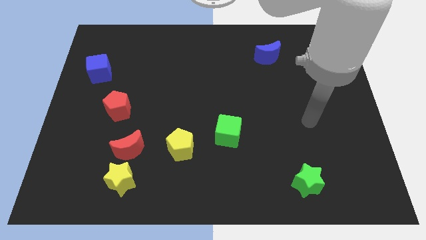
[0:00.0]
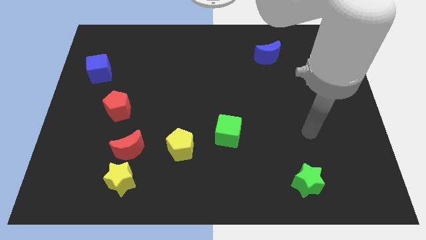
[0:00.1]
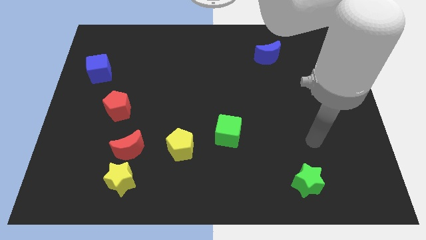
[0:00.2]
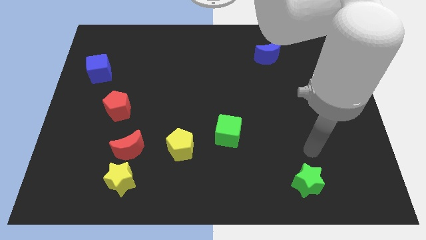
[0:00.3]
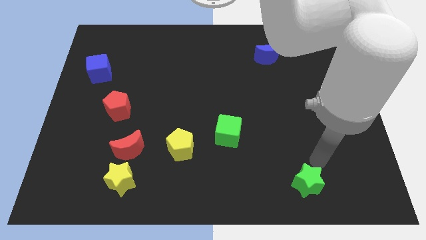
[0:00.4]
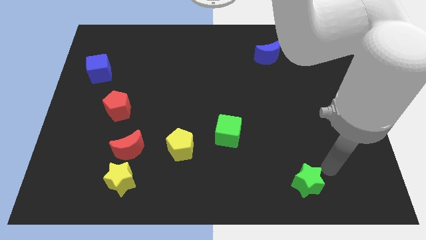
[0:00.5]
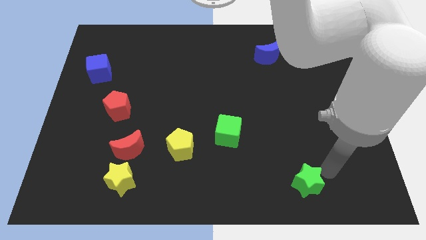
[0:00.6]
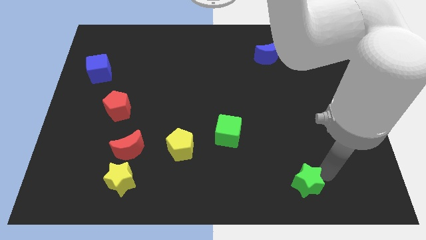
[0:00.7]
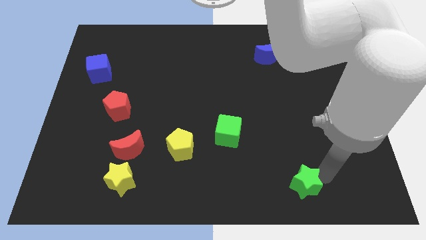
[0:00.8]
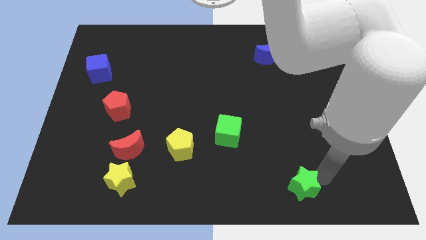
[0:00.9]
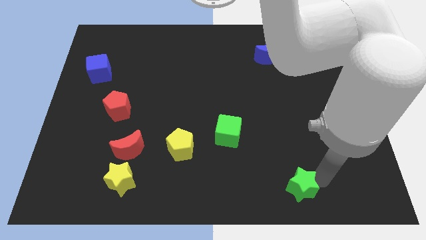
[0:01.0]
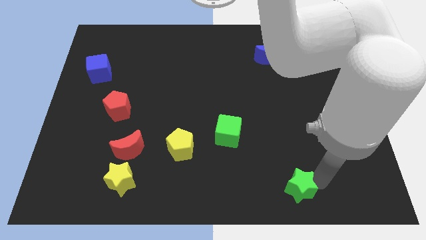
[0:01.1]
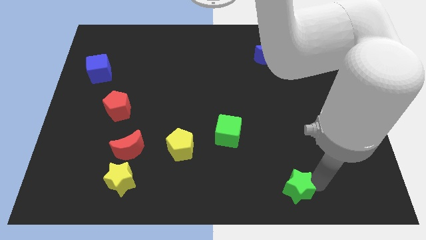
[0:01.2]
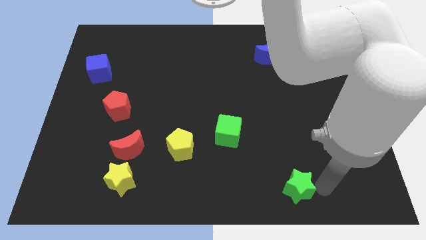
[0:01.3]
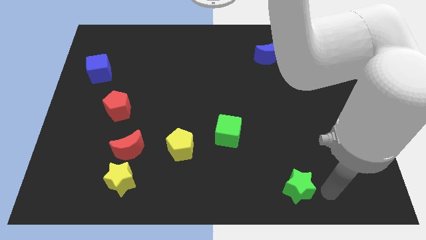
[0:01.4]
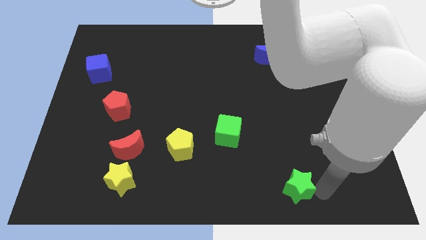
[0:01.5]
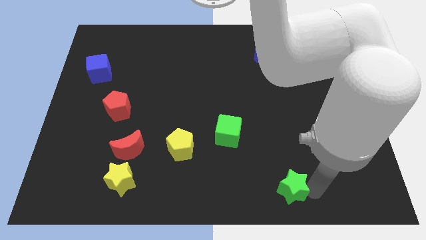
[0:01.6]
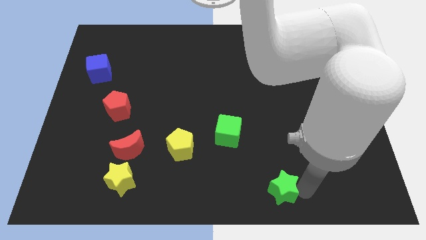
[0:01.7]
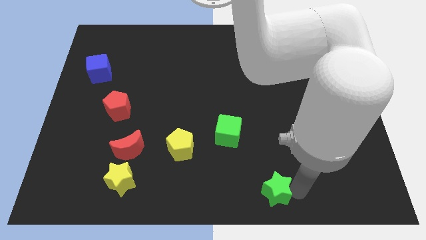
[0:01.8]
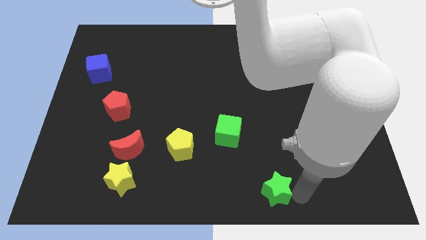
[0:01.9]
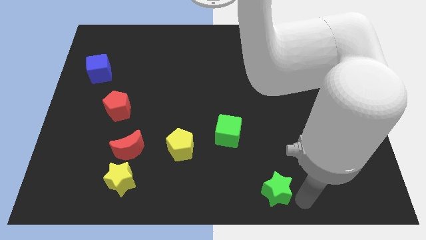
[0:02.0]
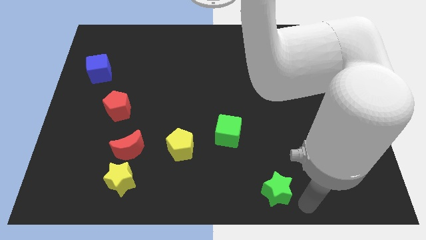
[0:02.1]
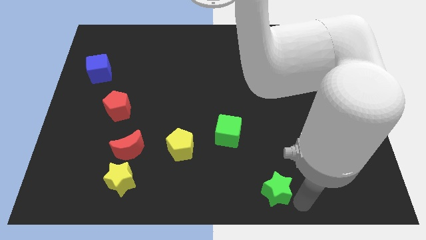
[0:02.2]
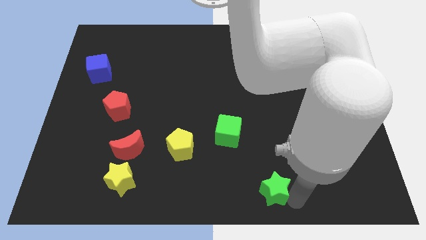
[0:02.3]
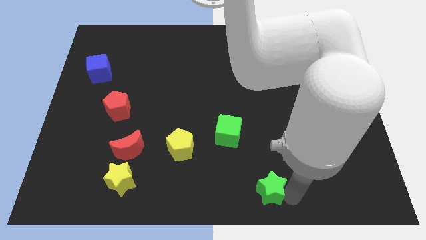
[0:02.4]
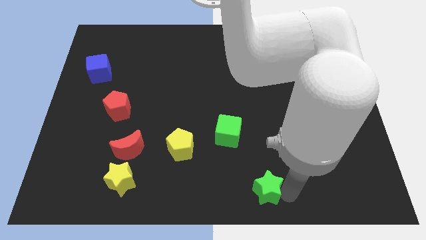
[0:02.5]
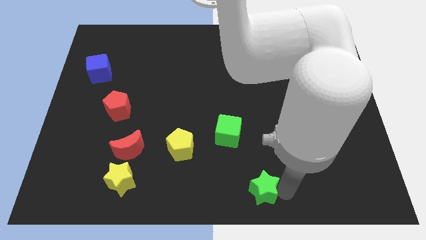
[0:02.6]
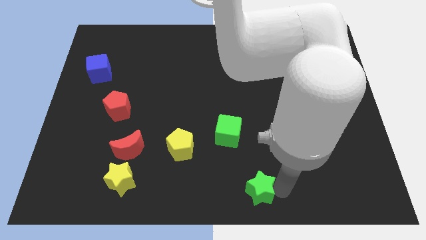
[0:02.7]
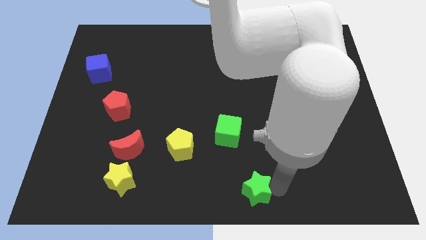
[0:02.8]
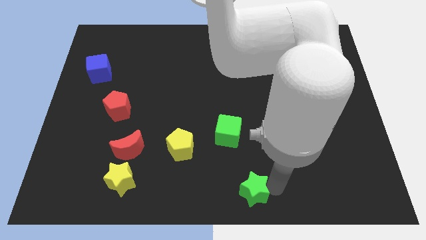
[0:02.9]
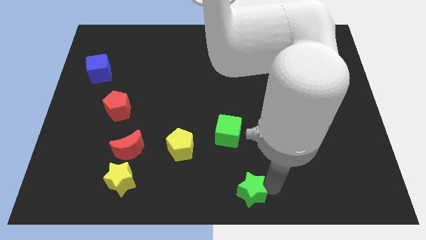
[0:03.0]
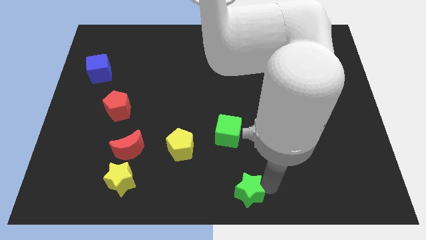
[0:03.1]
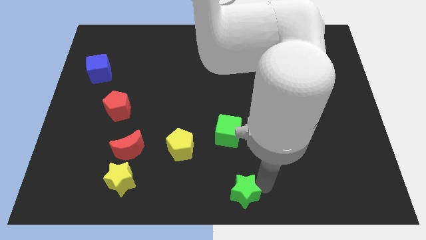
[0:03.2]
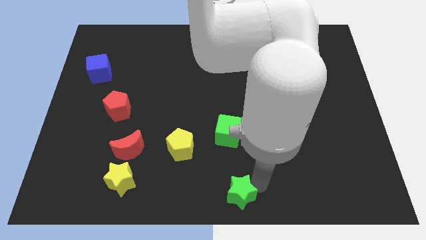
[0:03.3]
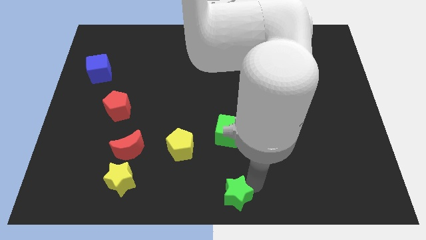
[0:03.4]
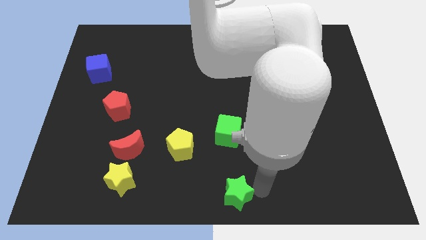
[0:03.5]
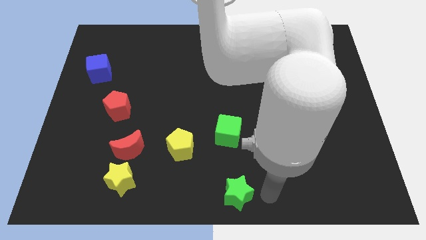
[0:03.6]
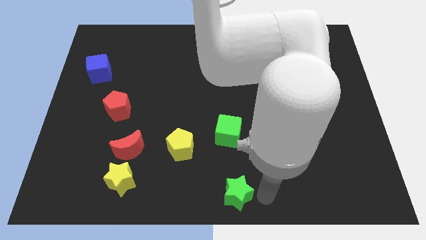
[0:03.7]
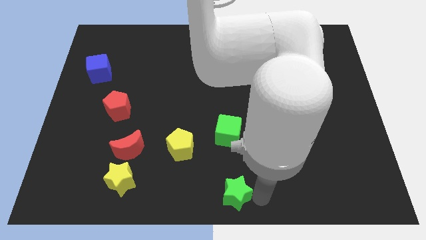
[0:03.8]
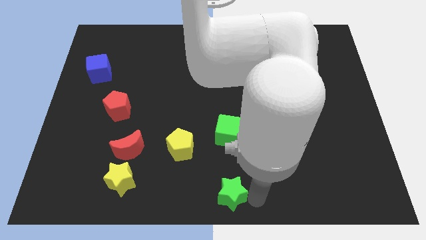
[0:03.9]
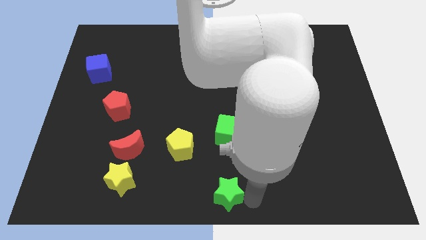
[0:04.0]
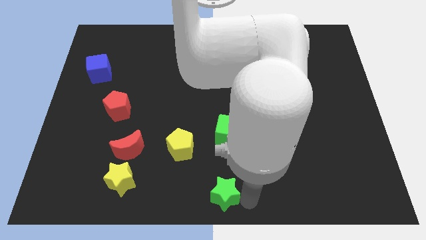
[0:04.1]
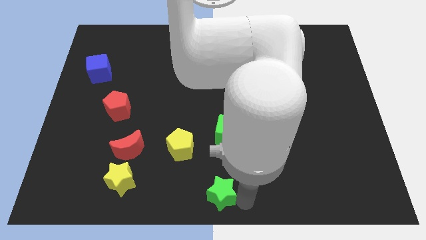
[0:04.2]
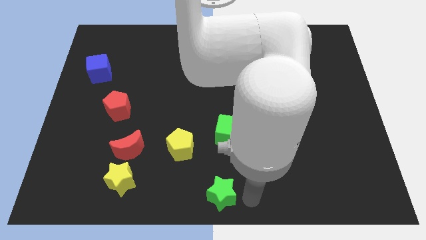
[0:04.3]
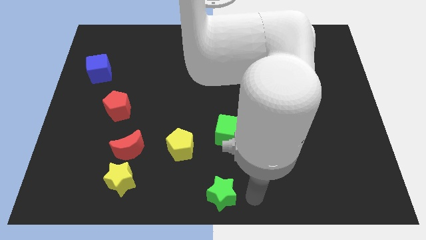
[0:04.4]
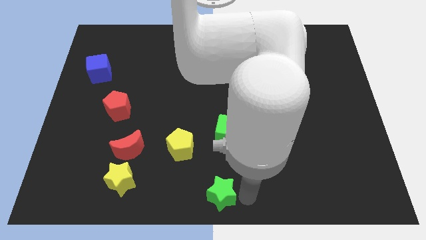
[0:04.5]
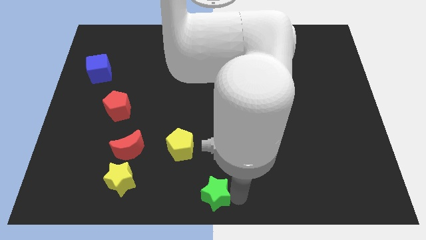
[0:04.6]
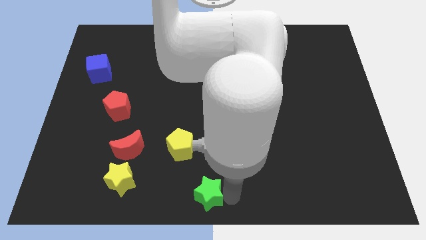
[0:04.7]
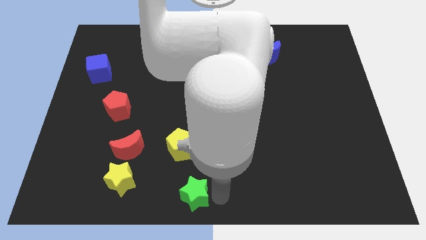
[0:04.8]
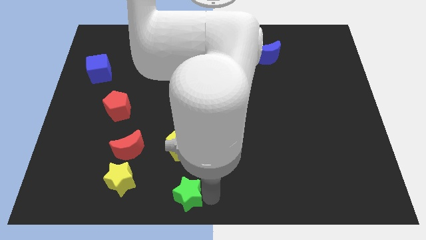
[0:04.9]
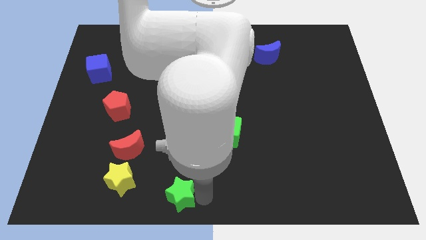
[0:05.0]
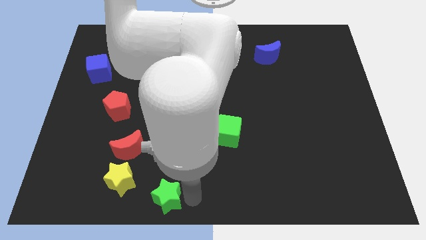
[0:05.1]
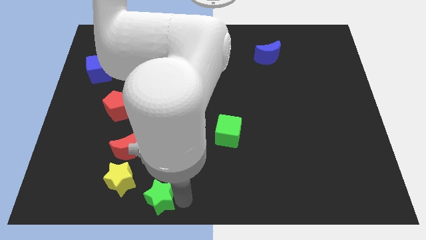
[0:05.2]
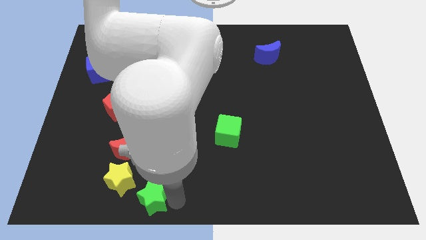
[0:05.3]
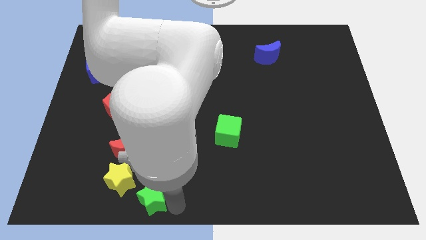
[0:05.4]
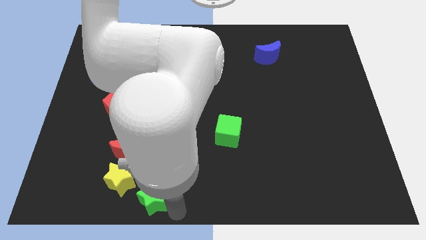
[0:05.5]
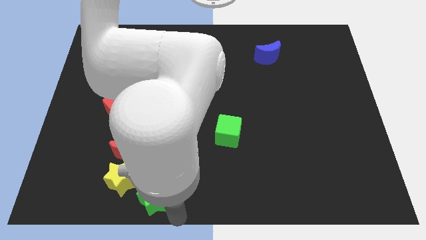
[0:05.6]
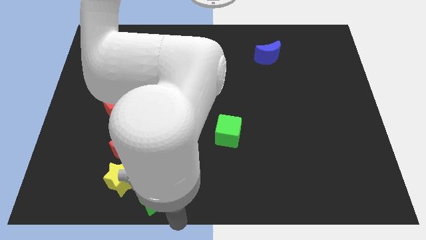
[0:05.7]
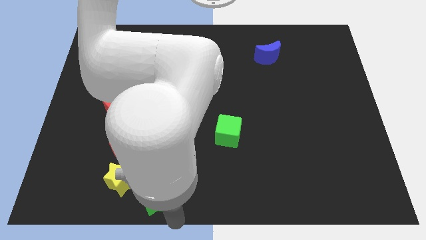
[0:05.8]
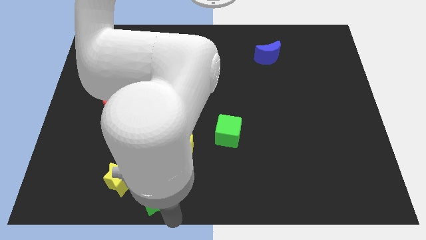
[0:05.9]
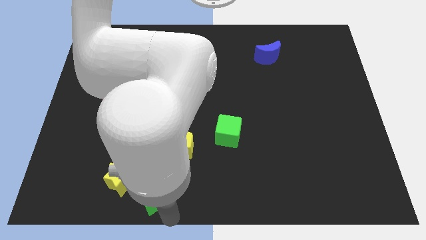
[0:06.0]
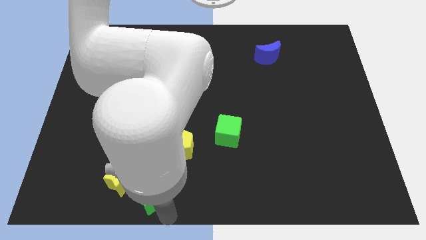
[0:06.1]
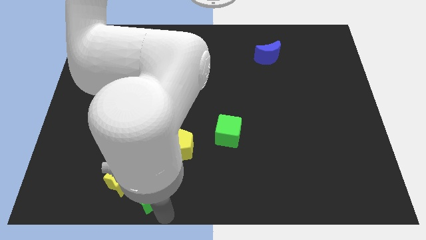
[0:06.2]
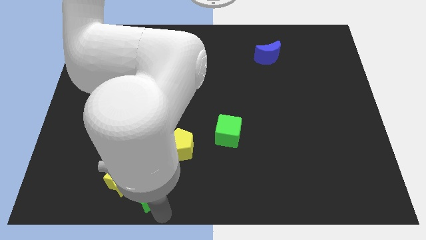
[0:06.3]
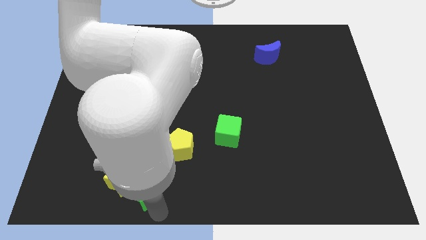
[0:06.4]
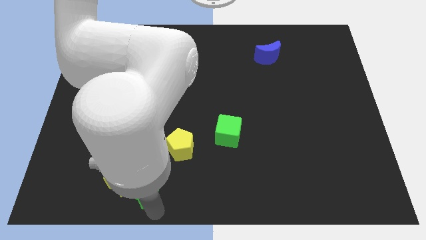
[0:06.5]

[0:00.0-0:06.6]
move the green star towards the yellow star

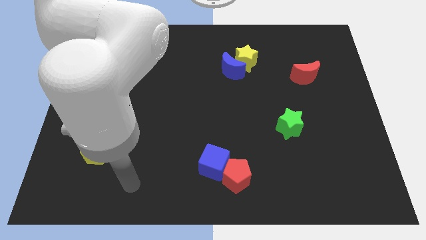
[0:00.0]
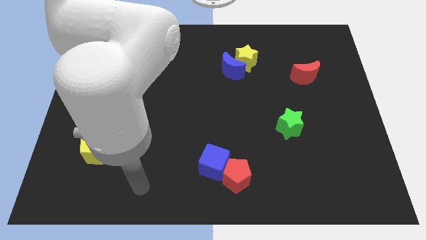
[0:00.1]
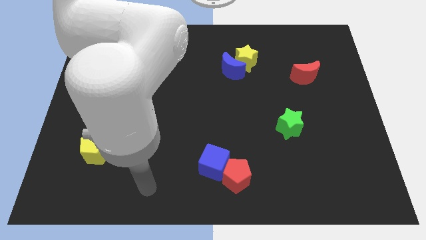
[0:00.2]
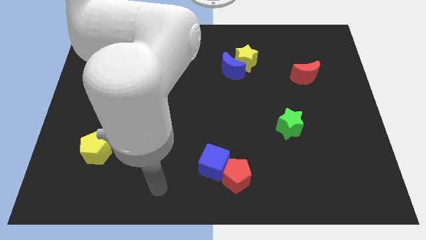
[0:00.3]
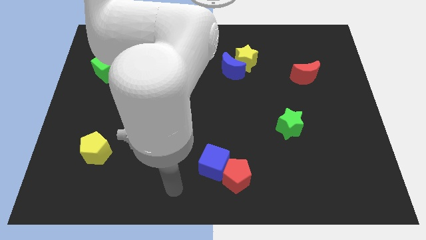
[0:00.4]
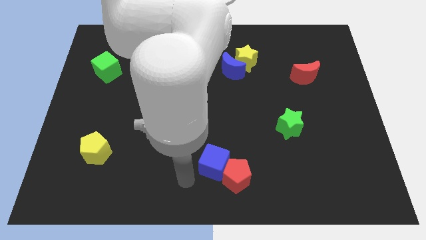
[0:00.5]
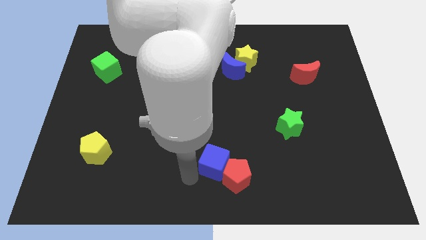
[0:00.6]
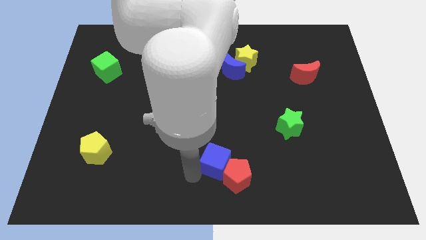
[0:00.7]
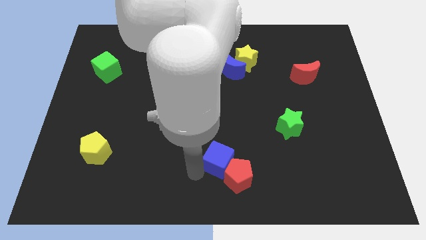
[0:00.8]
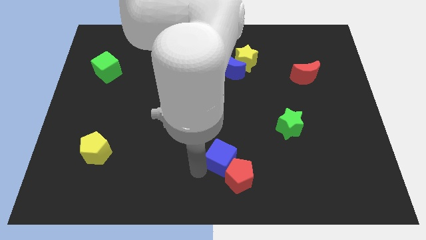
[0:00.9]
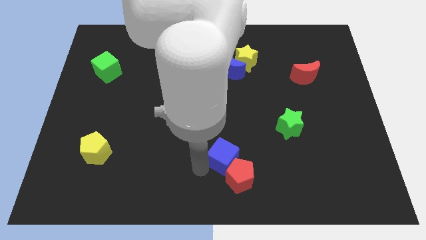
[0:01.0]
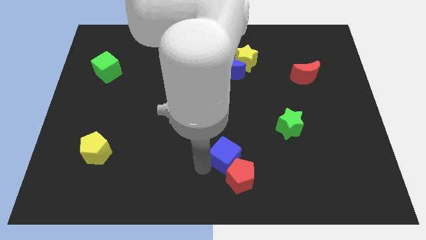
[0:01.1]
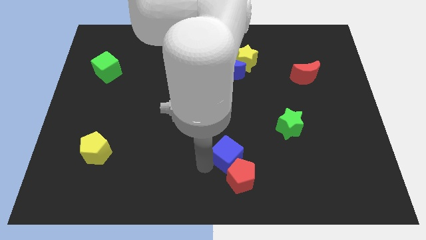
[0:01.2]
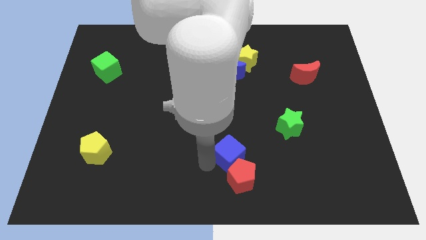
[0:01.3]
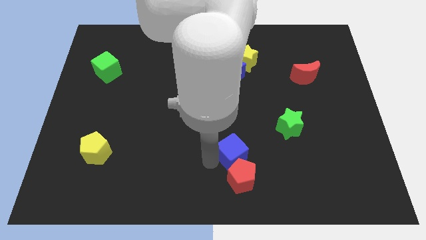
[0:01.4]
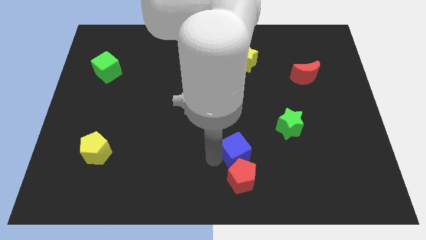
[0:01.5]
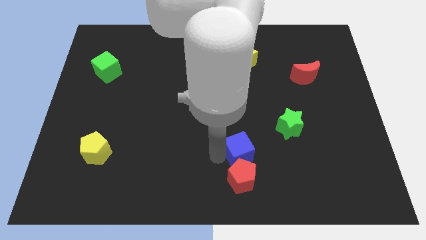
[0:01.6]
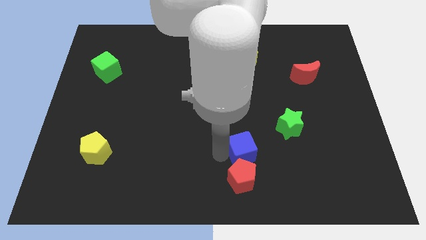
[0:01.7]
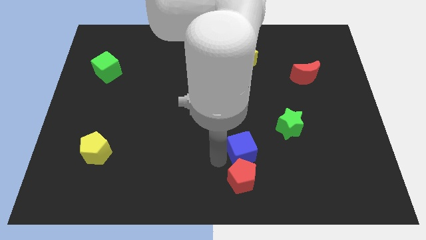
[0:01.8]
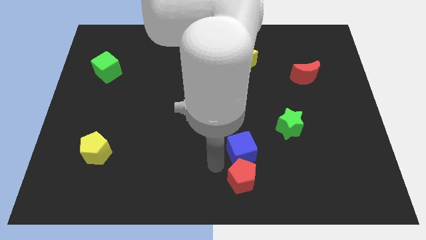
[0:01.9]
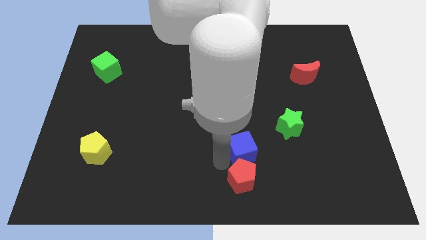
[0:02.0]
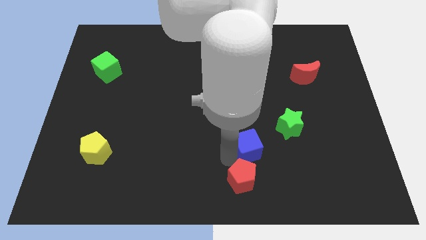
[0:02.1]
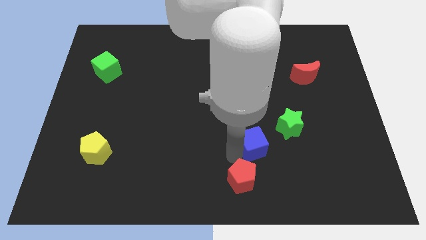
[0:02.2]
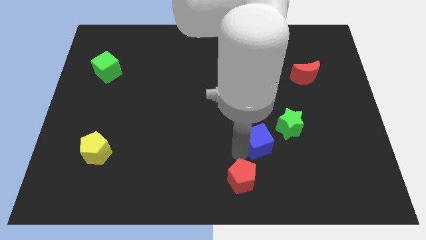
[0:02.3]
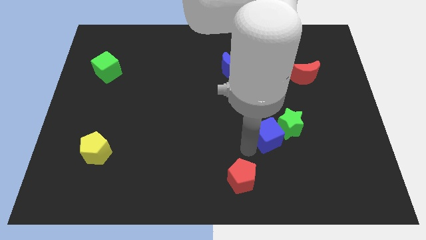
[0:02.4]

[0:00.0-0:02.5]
slide the blue cube to the green star
